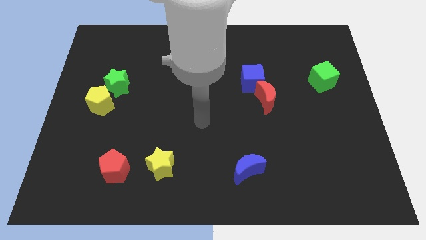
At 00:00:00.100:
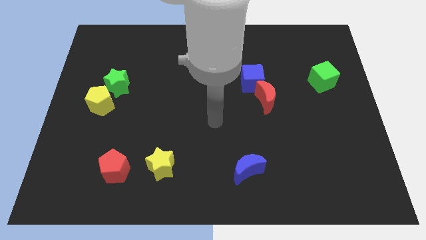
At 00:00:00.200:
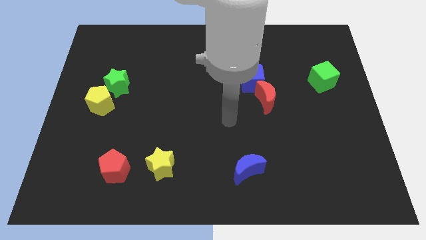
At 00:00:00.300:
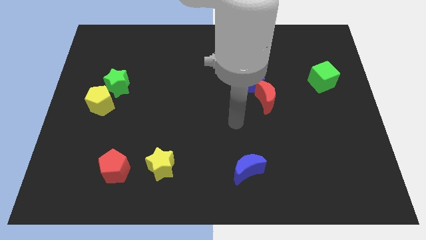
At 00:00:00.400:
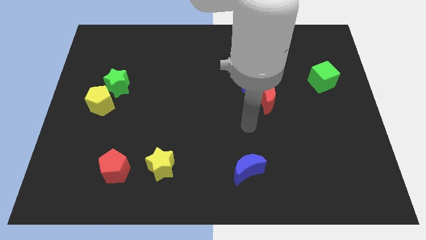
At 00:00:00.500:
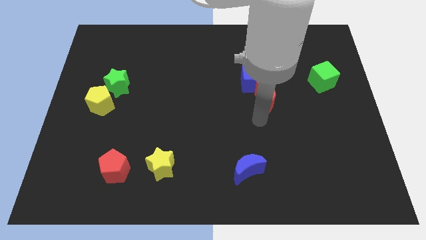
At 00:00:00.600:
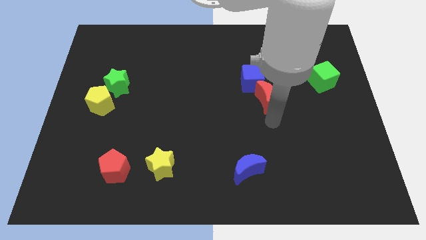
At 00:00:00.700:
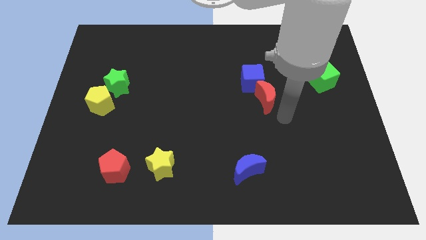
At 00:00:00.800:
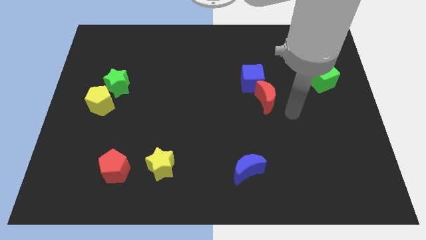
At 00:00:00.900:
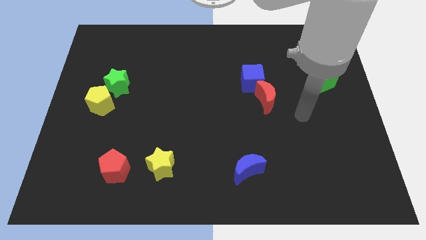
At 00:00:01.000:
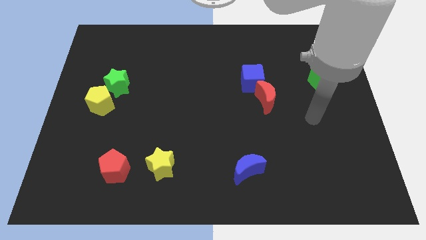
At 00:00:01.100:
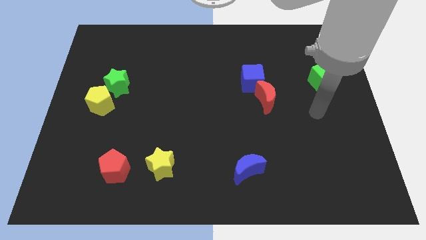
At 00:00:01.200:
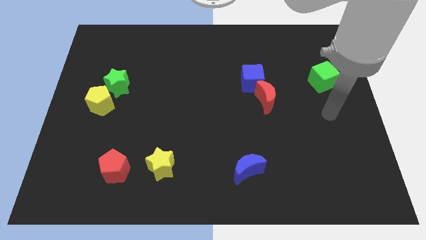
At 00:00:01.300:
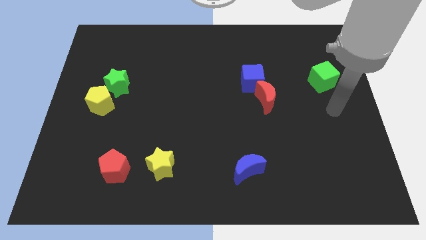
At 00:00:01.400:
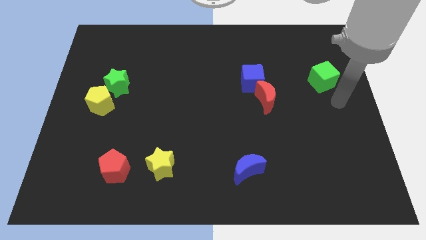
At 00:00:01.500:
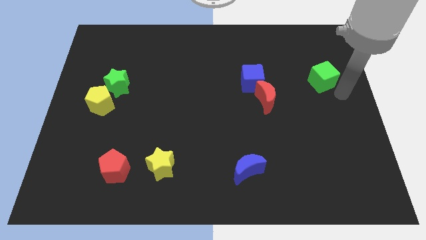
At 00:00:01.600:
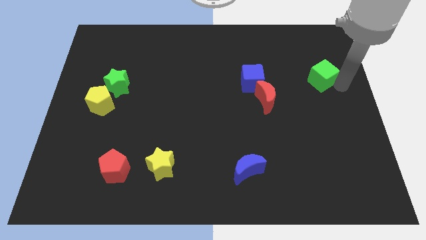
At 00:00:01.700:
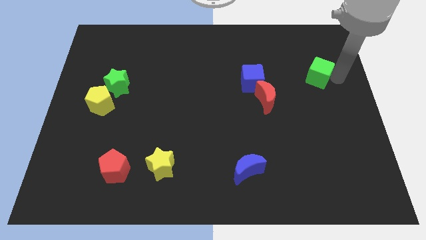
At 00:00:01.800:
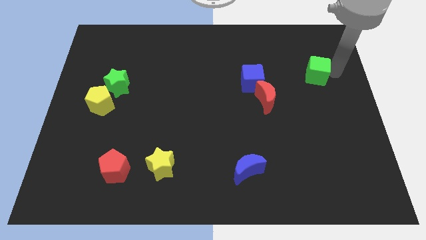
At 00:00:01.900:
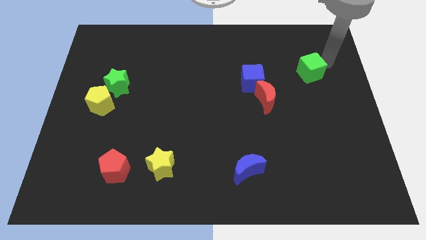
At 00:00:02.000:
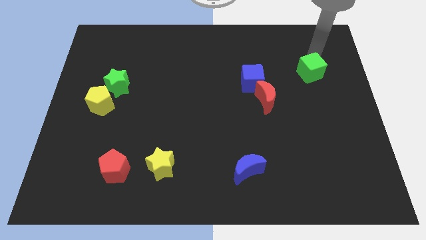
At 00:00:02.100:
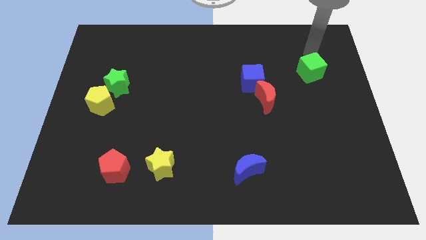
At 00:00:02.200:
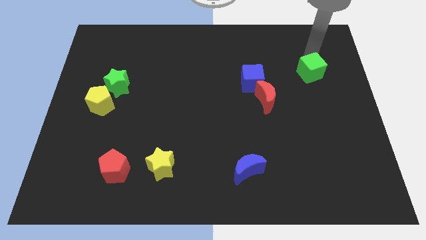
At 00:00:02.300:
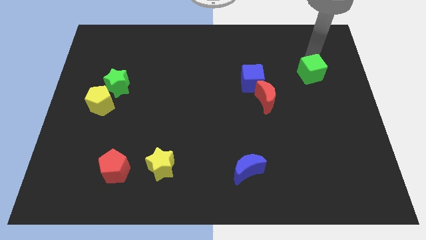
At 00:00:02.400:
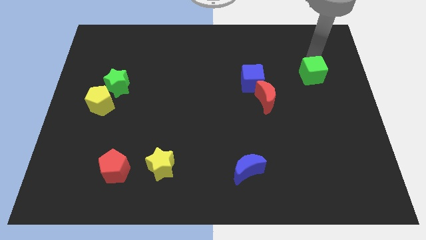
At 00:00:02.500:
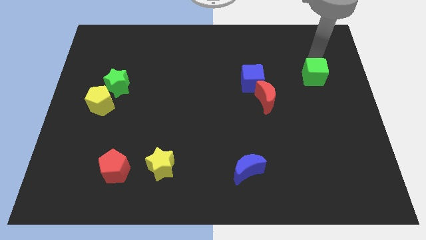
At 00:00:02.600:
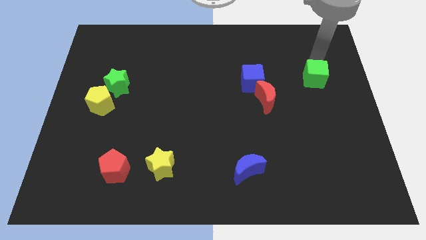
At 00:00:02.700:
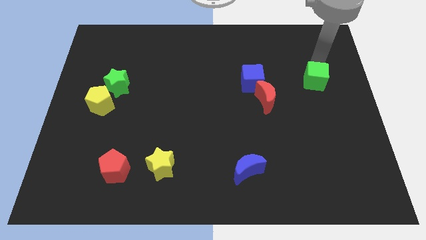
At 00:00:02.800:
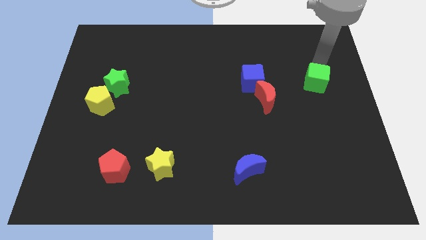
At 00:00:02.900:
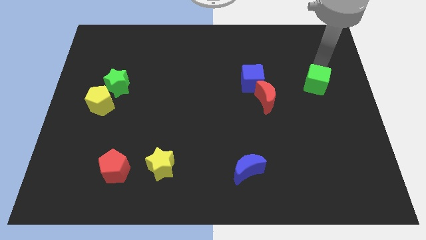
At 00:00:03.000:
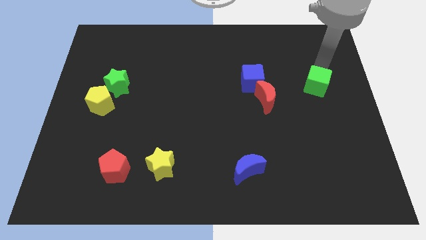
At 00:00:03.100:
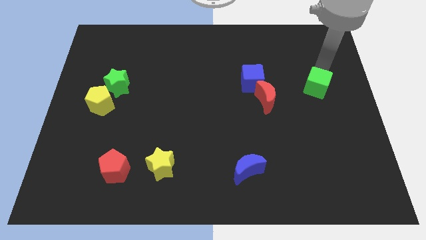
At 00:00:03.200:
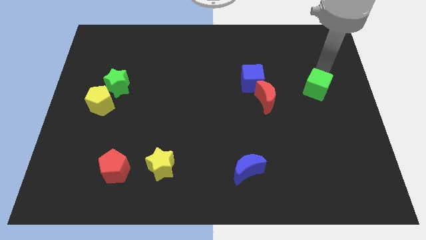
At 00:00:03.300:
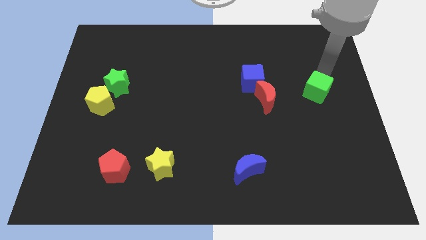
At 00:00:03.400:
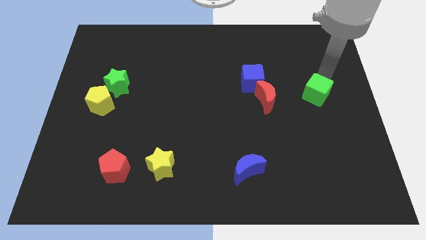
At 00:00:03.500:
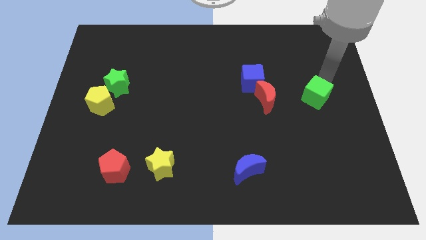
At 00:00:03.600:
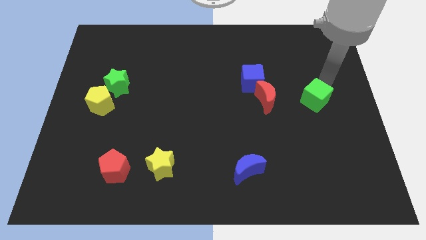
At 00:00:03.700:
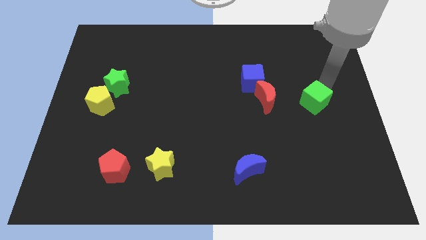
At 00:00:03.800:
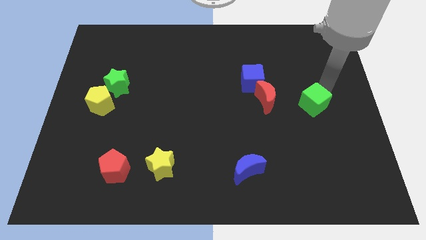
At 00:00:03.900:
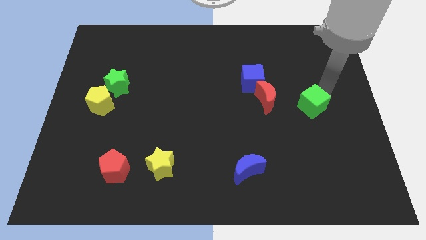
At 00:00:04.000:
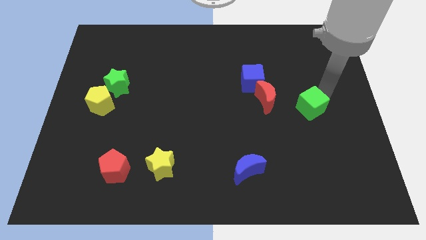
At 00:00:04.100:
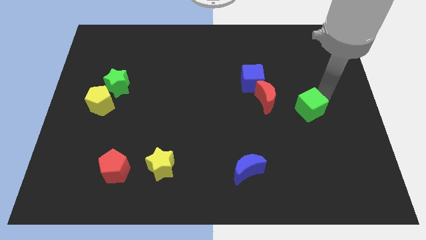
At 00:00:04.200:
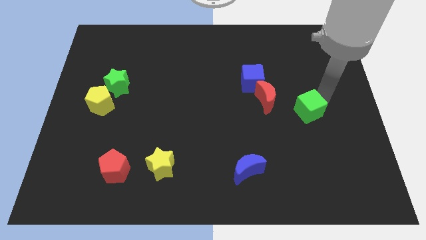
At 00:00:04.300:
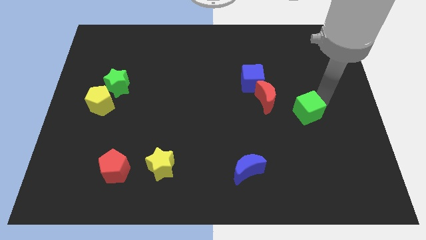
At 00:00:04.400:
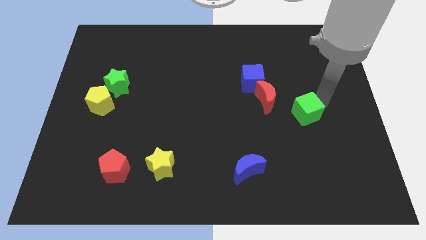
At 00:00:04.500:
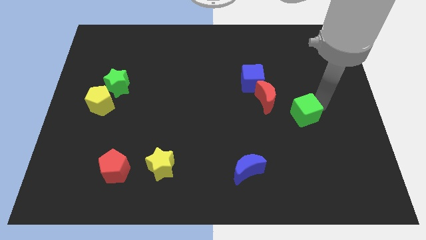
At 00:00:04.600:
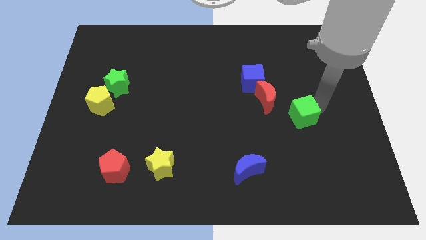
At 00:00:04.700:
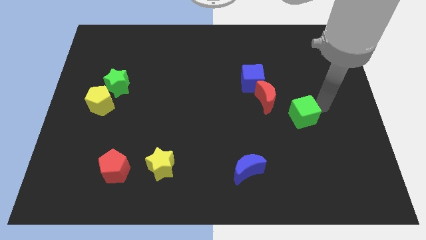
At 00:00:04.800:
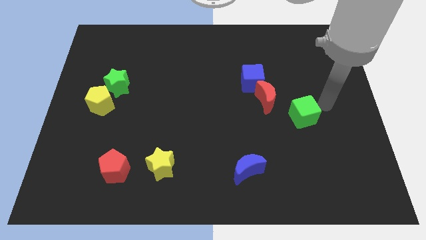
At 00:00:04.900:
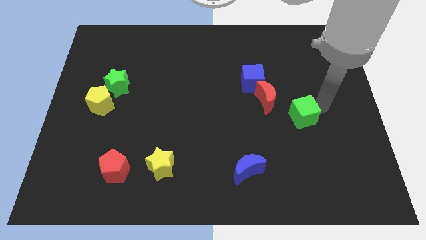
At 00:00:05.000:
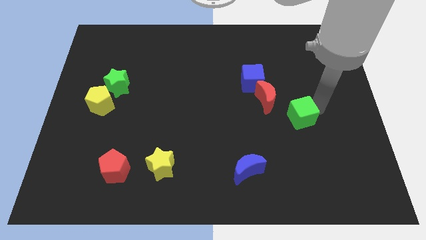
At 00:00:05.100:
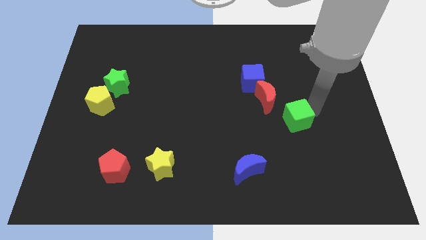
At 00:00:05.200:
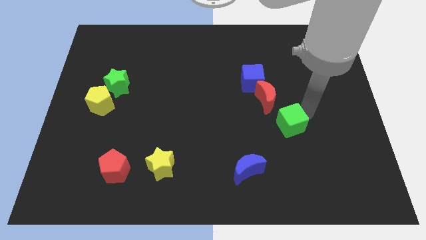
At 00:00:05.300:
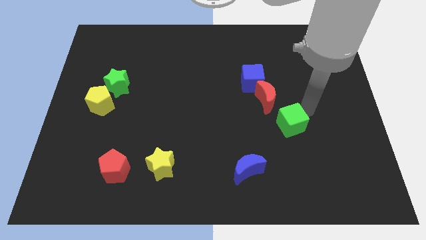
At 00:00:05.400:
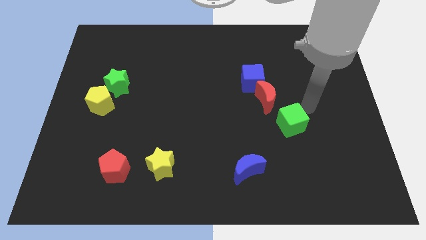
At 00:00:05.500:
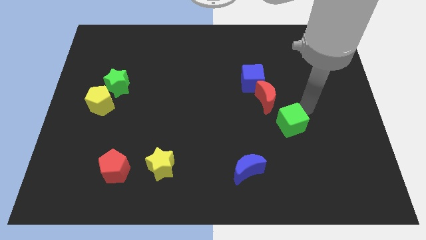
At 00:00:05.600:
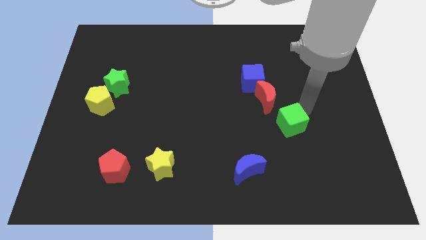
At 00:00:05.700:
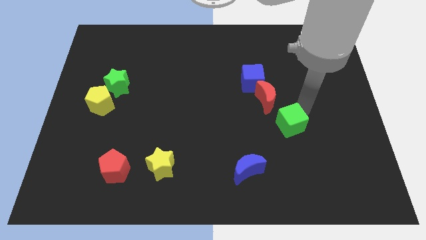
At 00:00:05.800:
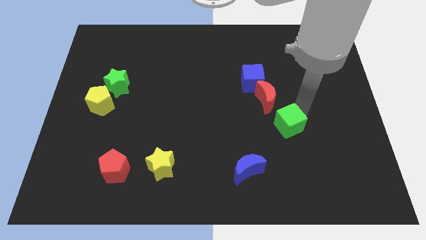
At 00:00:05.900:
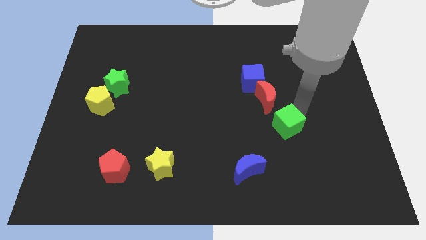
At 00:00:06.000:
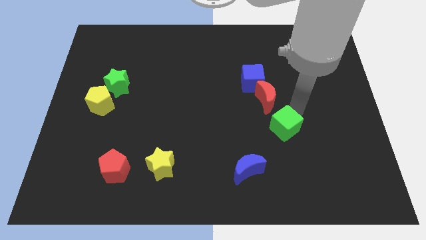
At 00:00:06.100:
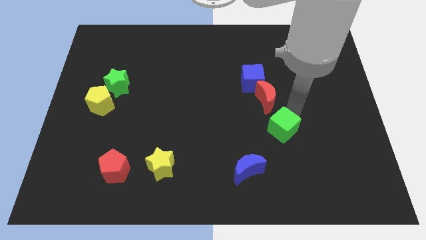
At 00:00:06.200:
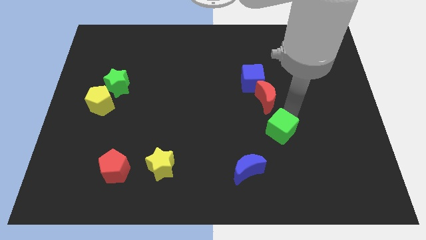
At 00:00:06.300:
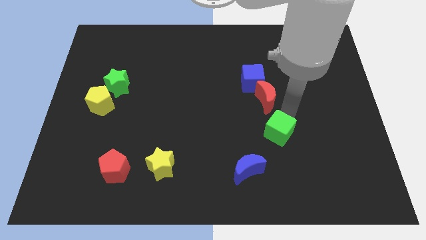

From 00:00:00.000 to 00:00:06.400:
push the green cube to the top right side of the blue moon

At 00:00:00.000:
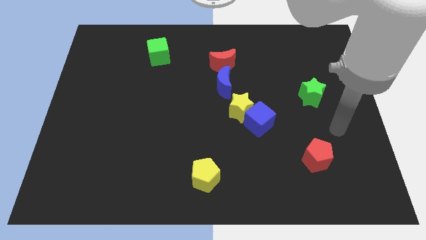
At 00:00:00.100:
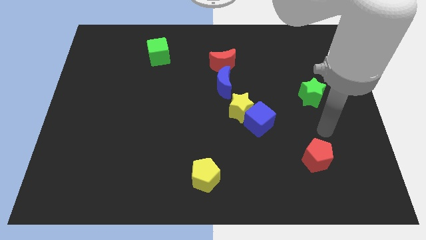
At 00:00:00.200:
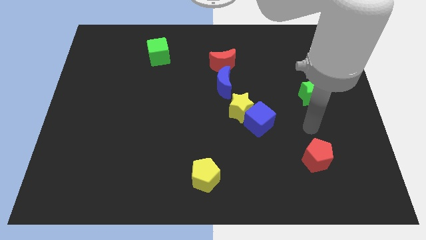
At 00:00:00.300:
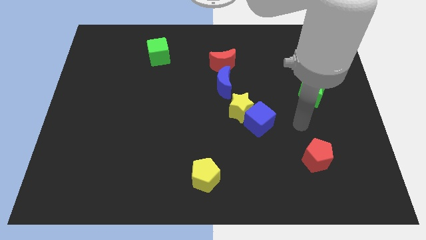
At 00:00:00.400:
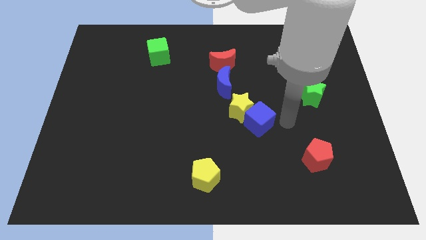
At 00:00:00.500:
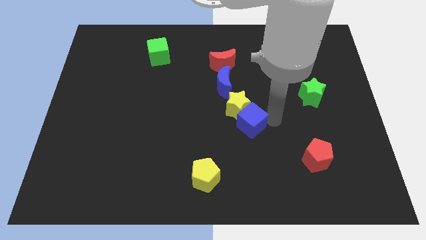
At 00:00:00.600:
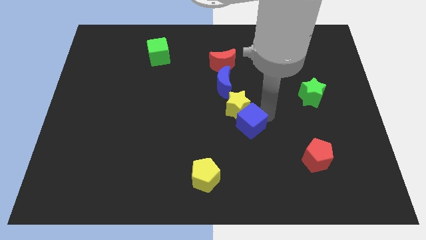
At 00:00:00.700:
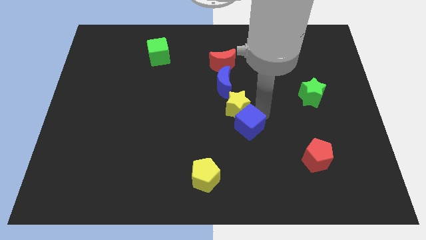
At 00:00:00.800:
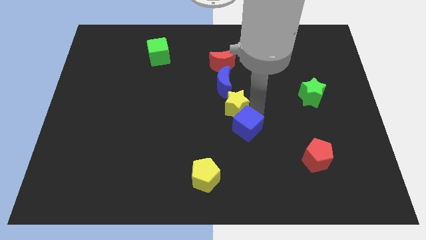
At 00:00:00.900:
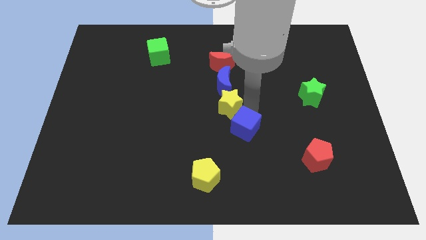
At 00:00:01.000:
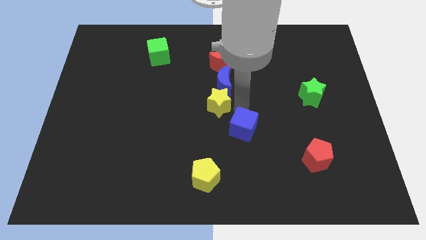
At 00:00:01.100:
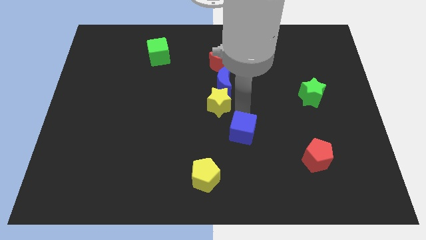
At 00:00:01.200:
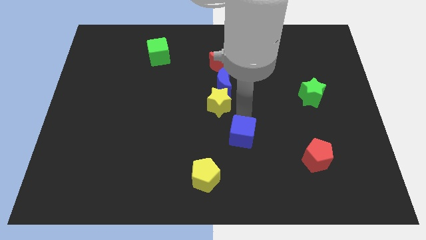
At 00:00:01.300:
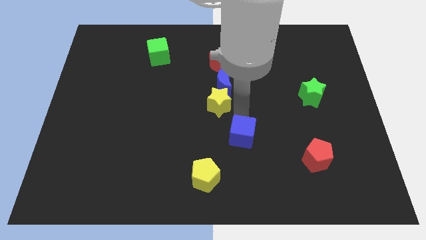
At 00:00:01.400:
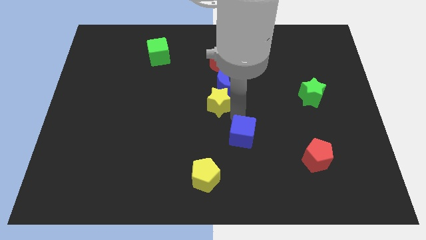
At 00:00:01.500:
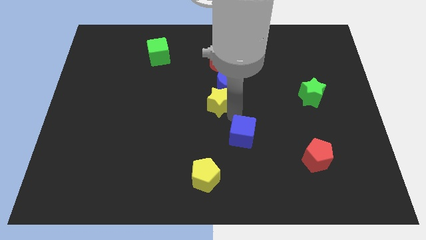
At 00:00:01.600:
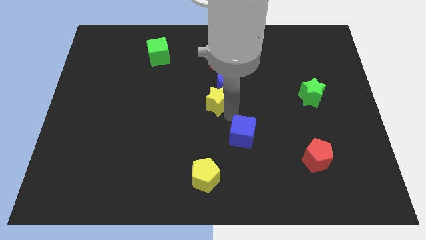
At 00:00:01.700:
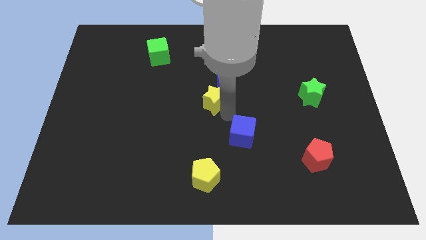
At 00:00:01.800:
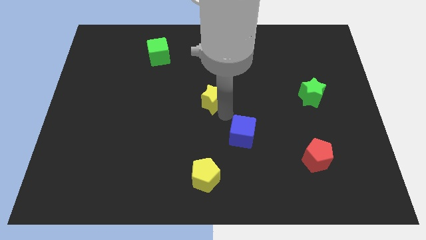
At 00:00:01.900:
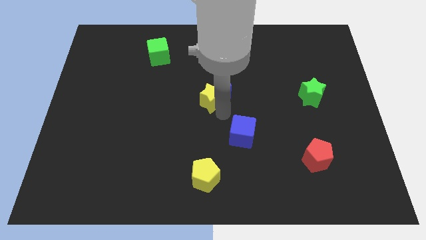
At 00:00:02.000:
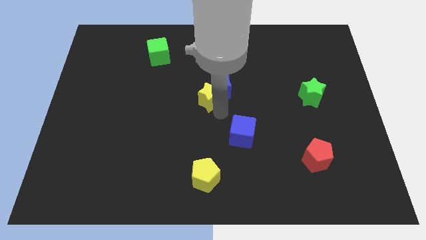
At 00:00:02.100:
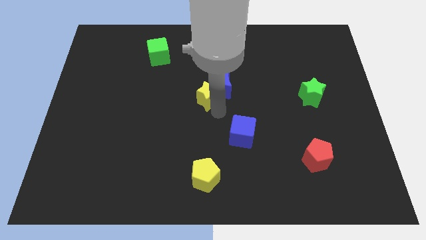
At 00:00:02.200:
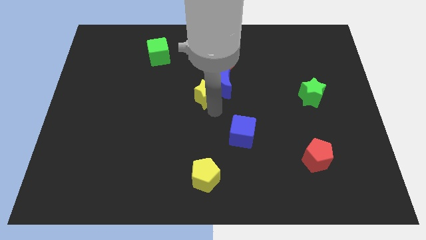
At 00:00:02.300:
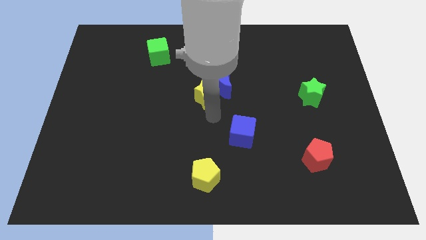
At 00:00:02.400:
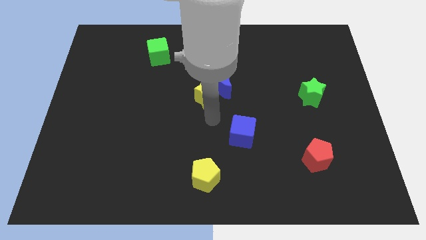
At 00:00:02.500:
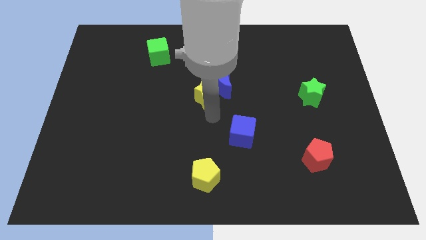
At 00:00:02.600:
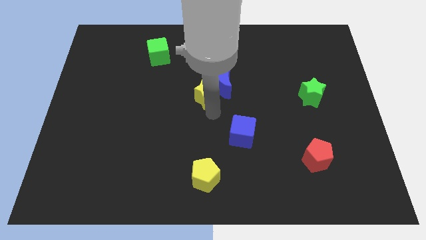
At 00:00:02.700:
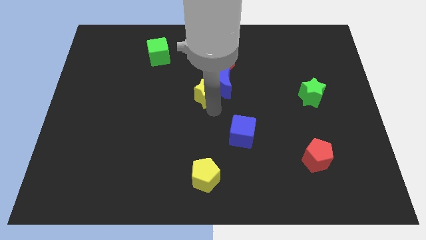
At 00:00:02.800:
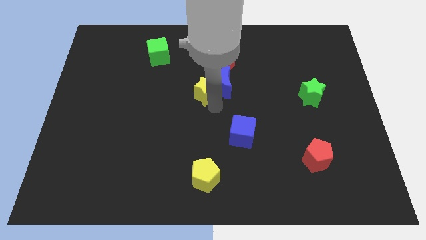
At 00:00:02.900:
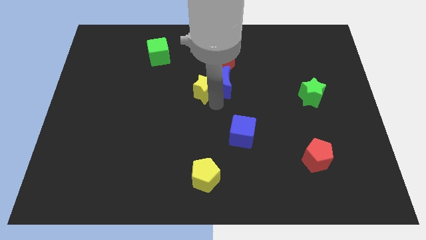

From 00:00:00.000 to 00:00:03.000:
move the yellow star to the top left of the blue moon
